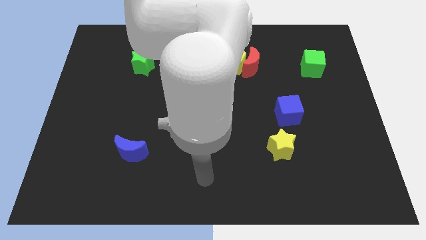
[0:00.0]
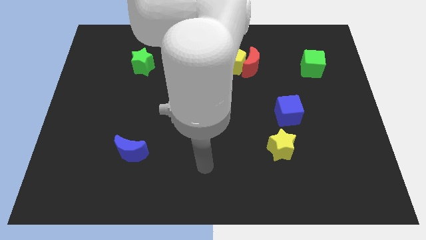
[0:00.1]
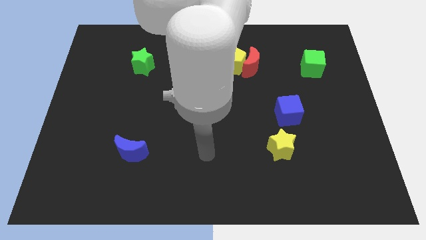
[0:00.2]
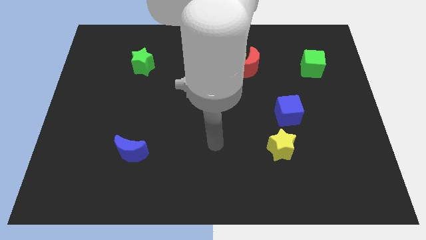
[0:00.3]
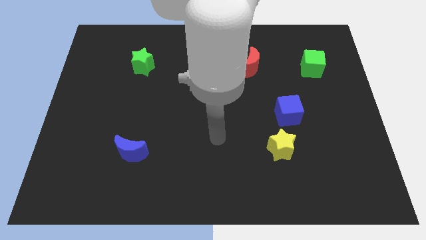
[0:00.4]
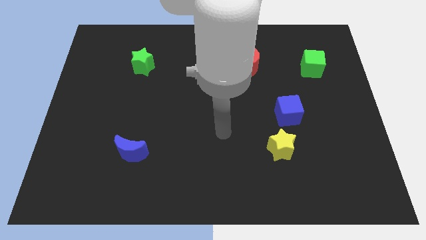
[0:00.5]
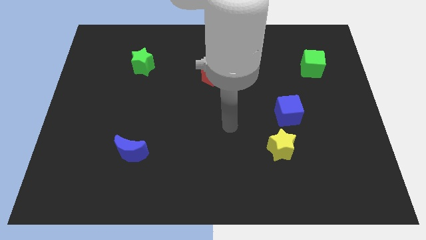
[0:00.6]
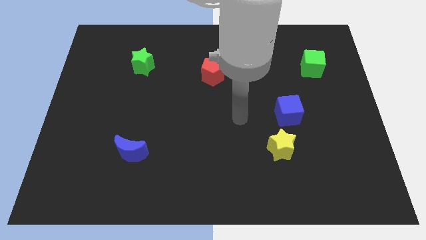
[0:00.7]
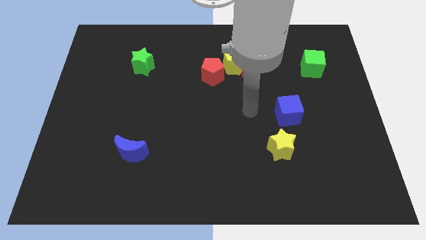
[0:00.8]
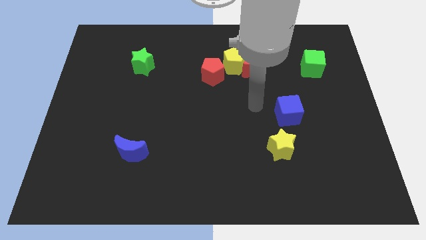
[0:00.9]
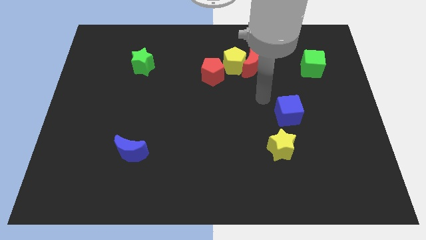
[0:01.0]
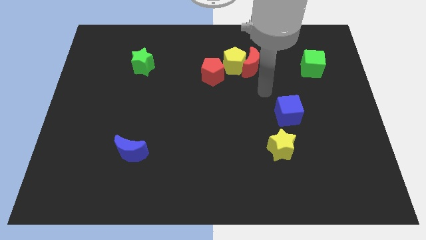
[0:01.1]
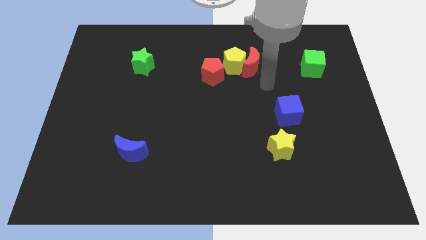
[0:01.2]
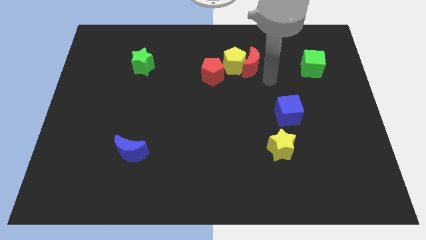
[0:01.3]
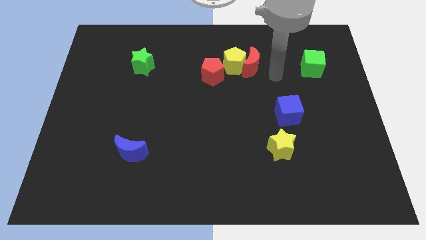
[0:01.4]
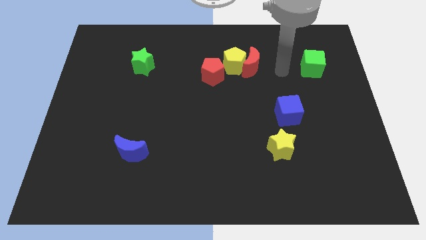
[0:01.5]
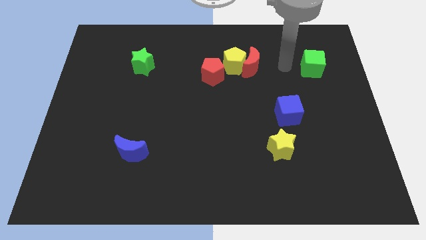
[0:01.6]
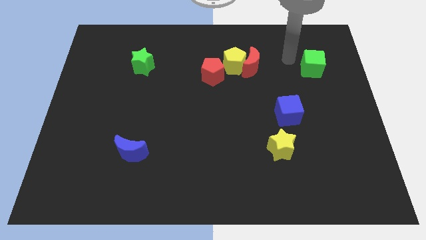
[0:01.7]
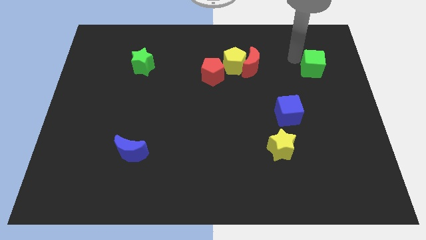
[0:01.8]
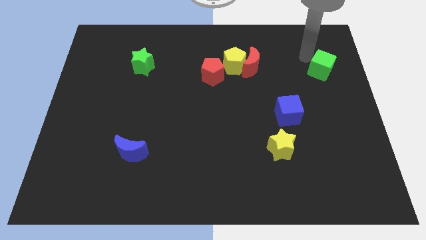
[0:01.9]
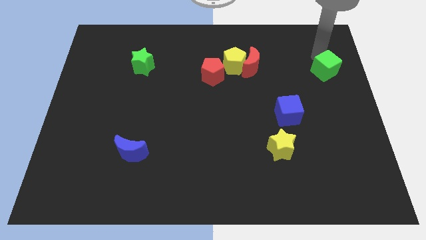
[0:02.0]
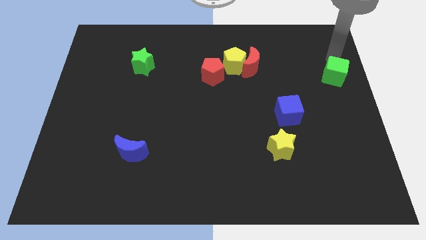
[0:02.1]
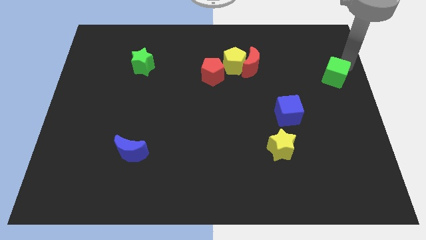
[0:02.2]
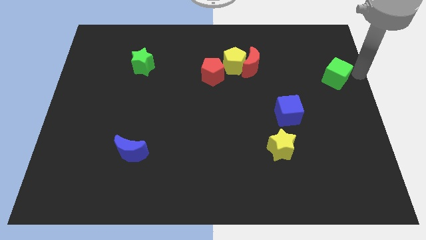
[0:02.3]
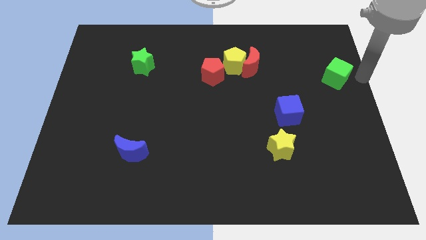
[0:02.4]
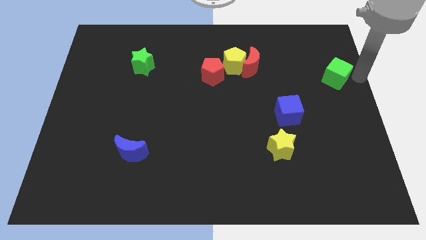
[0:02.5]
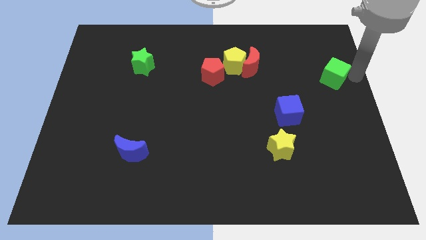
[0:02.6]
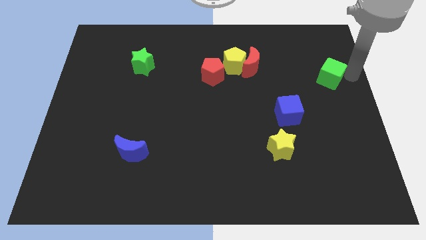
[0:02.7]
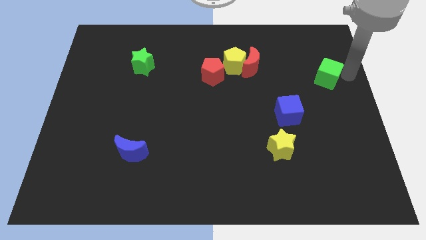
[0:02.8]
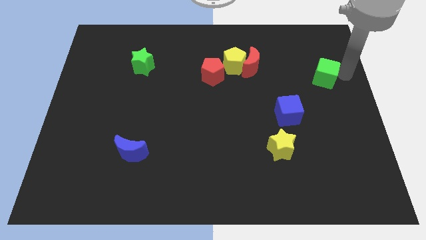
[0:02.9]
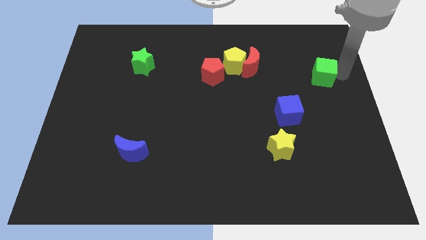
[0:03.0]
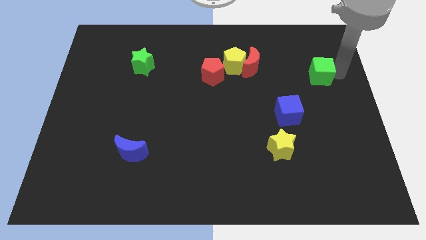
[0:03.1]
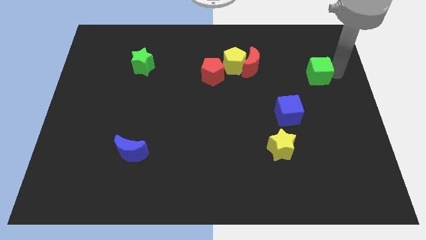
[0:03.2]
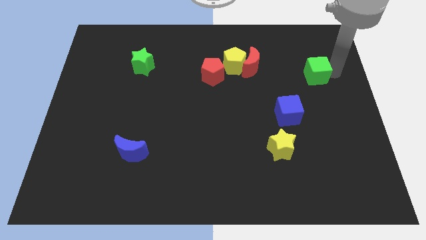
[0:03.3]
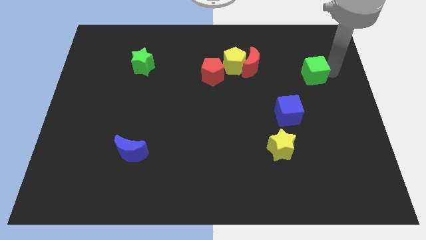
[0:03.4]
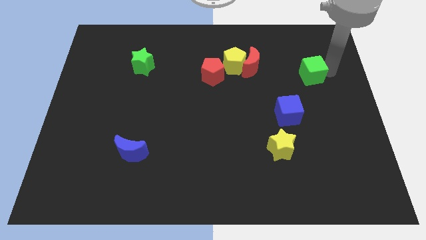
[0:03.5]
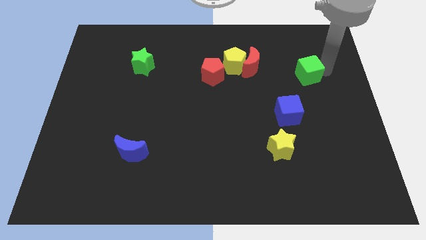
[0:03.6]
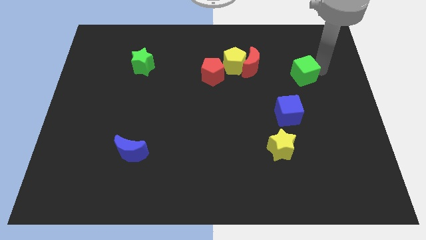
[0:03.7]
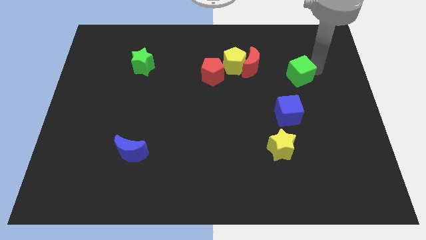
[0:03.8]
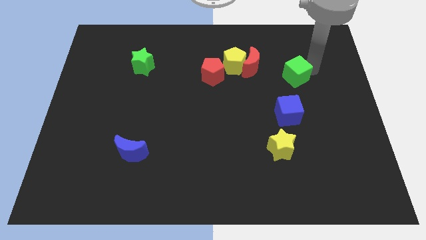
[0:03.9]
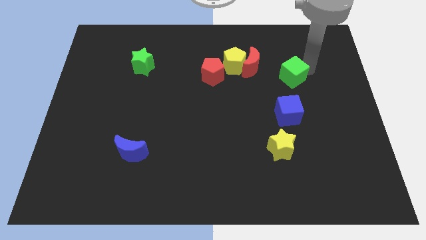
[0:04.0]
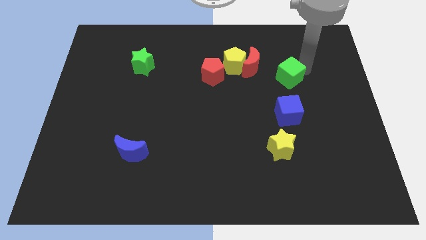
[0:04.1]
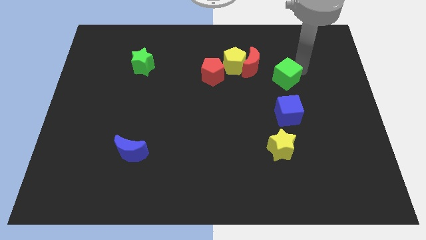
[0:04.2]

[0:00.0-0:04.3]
move the green cube somewhat down and to the left diagonally

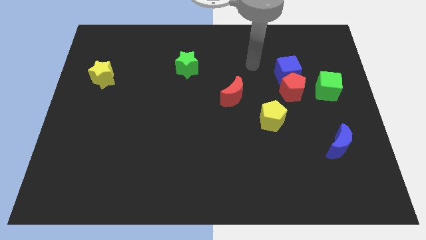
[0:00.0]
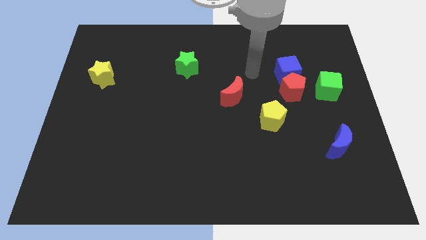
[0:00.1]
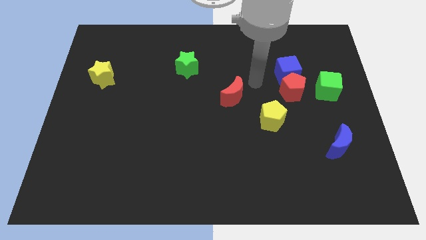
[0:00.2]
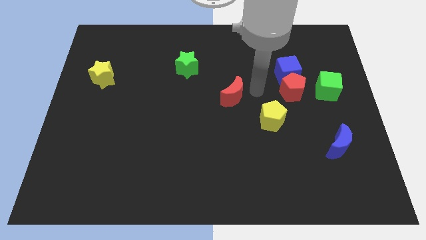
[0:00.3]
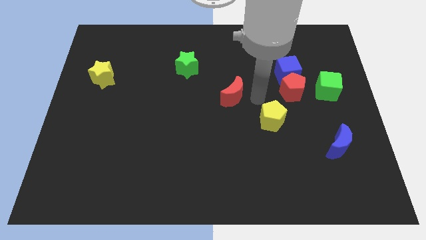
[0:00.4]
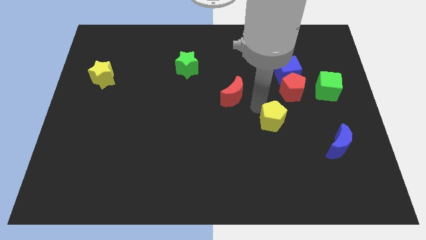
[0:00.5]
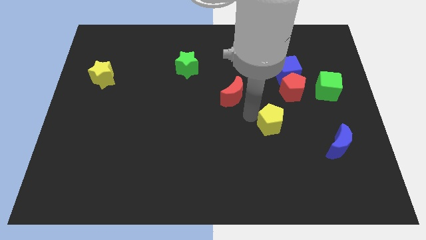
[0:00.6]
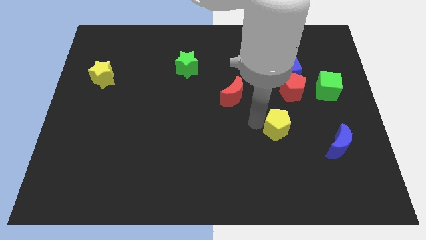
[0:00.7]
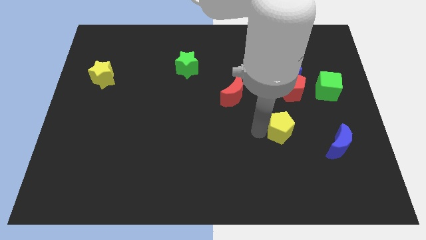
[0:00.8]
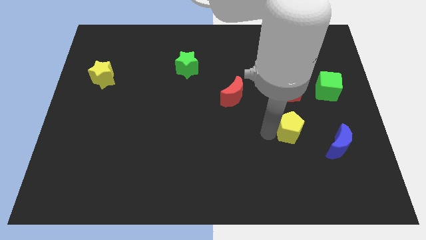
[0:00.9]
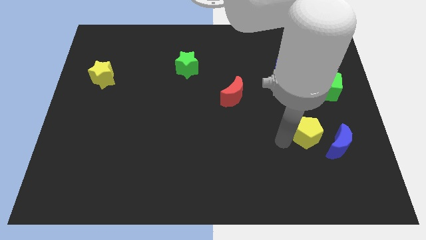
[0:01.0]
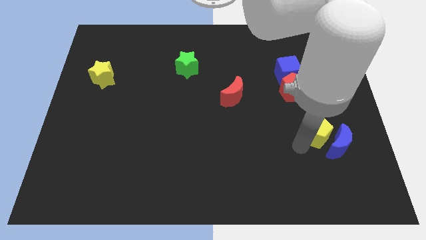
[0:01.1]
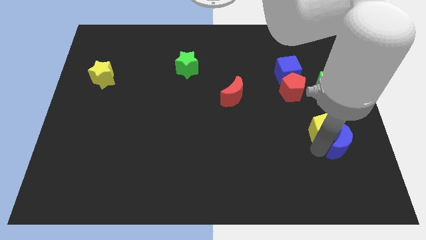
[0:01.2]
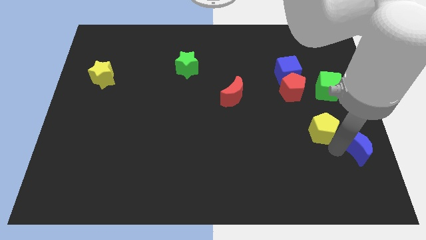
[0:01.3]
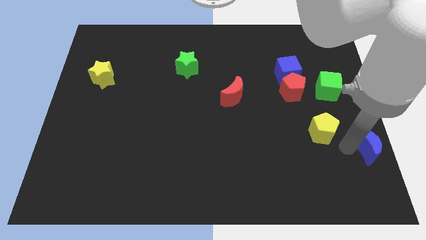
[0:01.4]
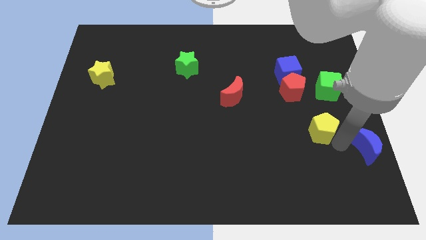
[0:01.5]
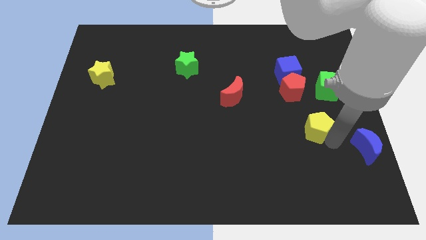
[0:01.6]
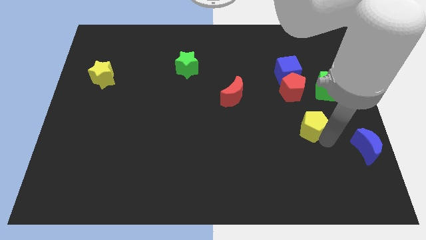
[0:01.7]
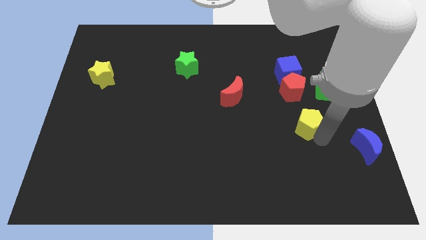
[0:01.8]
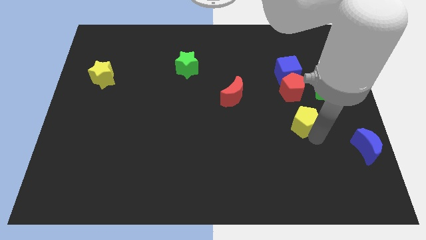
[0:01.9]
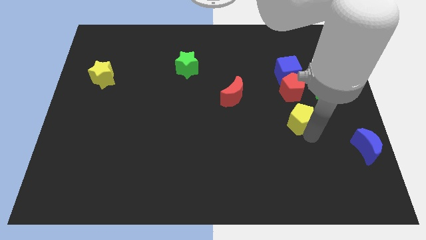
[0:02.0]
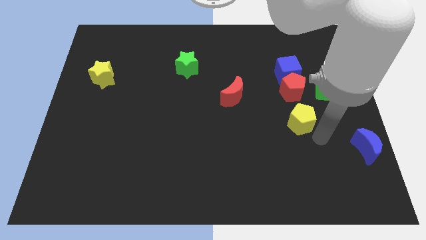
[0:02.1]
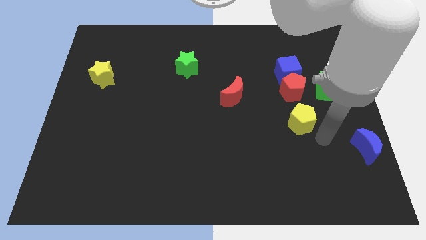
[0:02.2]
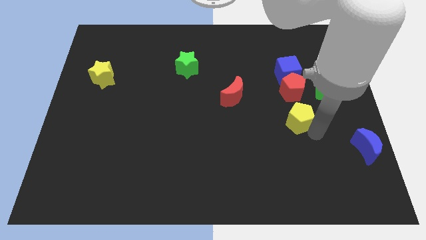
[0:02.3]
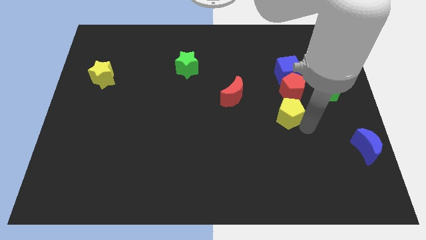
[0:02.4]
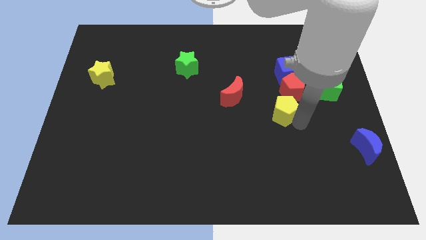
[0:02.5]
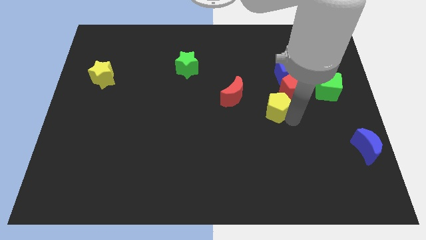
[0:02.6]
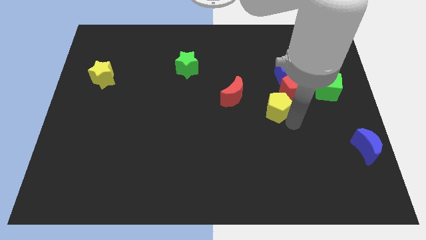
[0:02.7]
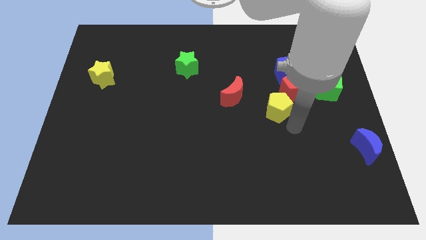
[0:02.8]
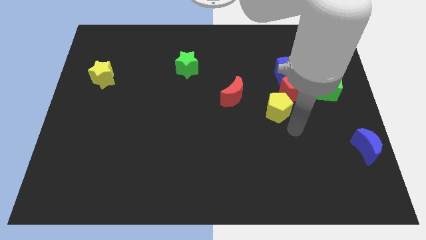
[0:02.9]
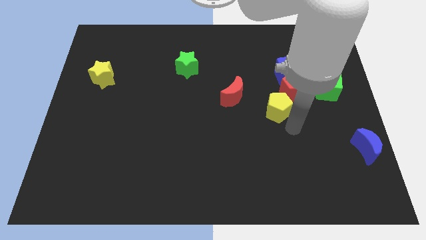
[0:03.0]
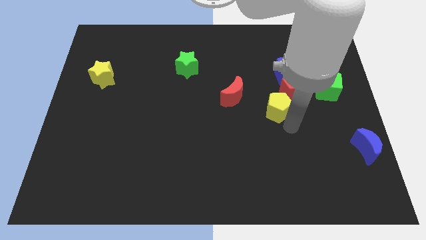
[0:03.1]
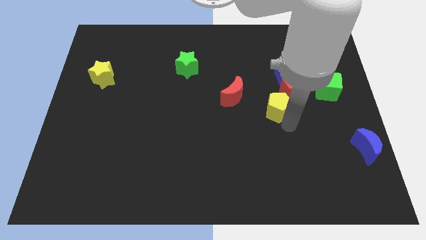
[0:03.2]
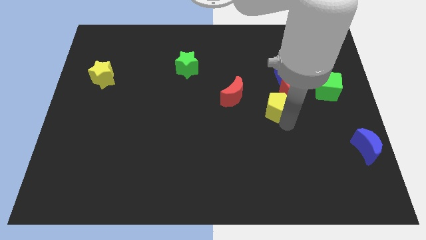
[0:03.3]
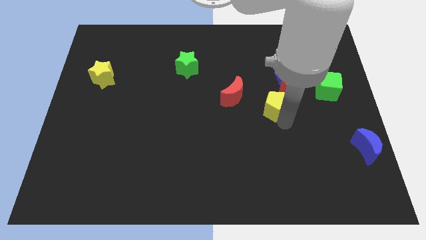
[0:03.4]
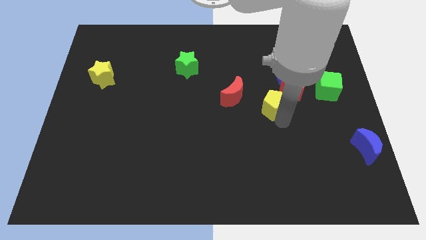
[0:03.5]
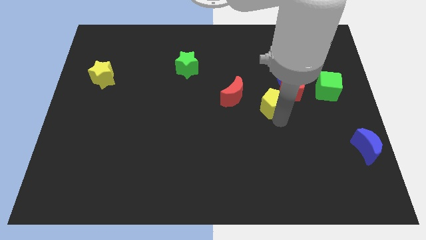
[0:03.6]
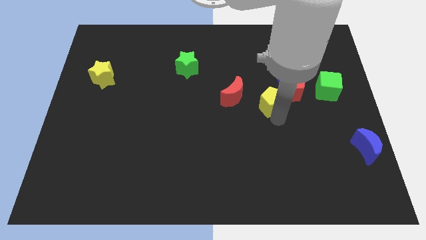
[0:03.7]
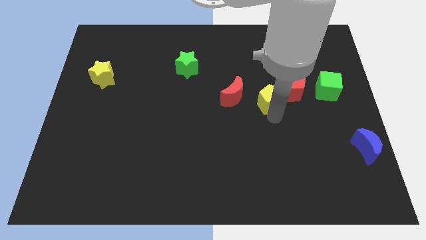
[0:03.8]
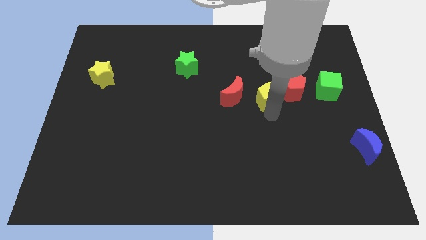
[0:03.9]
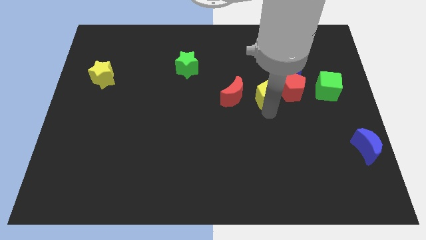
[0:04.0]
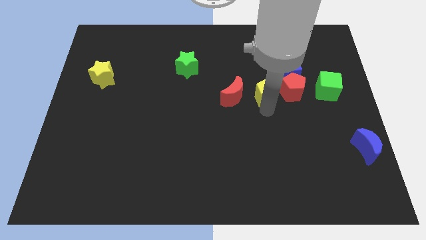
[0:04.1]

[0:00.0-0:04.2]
slide the yellow pentagon slightly up
